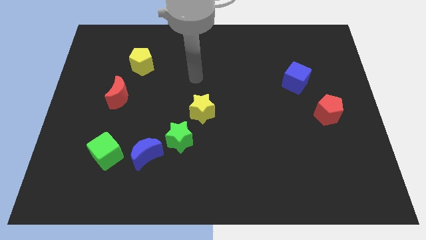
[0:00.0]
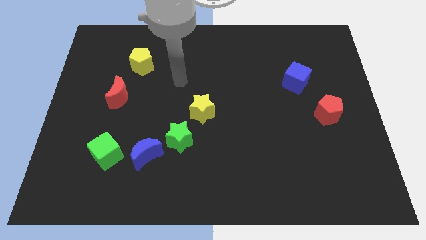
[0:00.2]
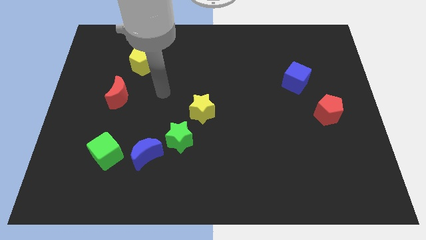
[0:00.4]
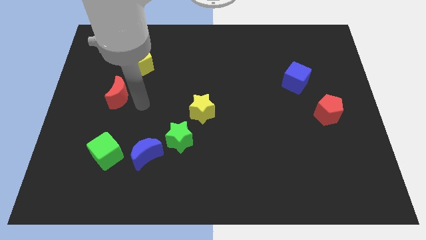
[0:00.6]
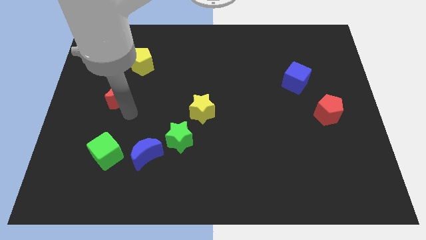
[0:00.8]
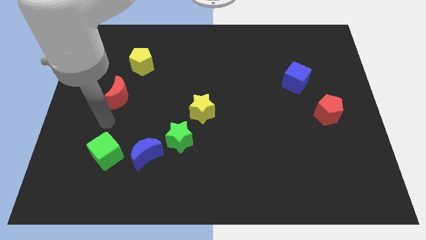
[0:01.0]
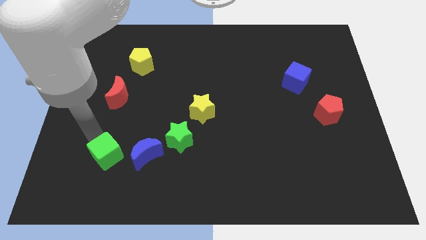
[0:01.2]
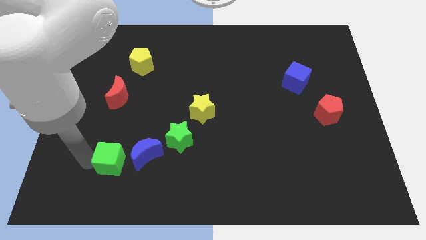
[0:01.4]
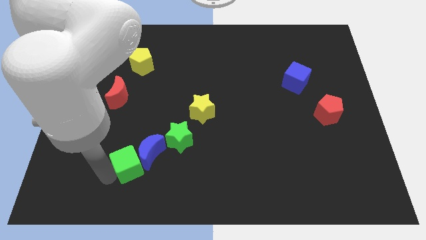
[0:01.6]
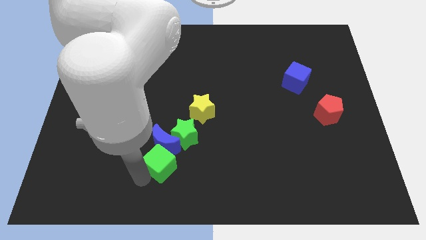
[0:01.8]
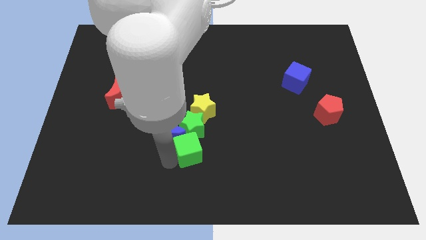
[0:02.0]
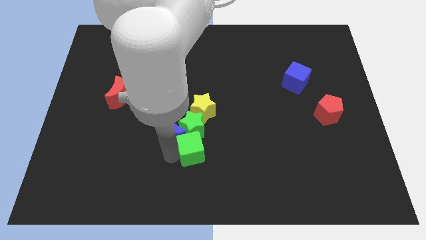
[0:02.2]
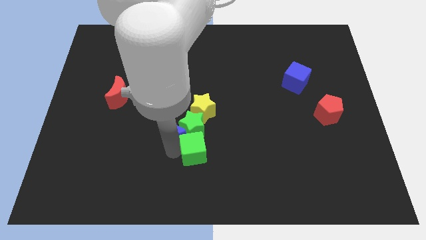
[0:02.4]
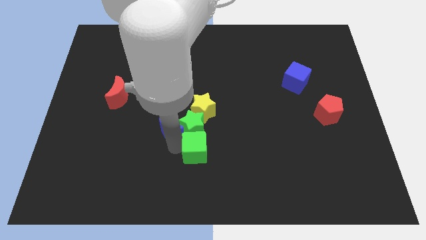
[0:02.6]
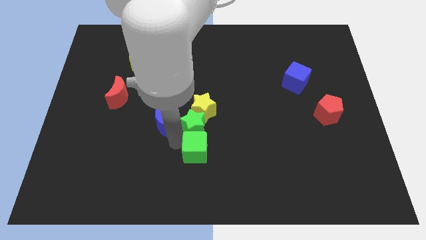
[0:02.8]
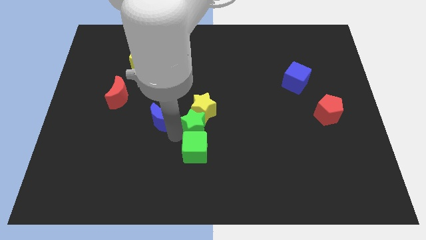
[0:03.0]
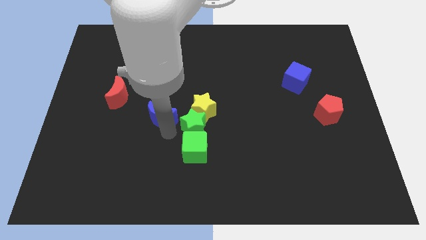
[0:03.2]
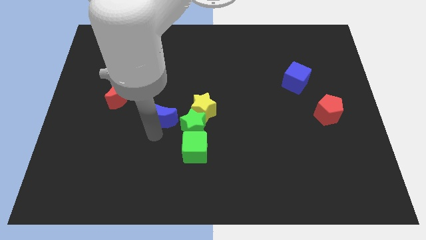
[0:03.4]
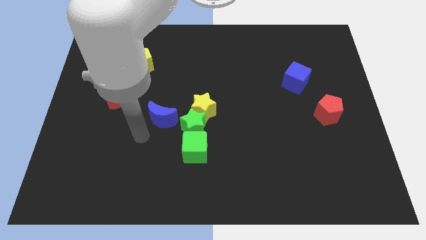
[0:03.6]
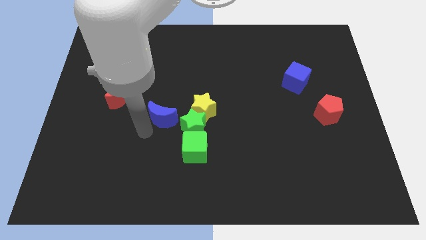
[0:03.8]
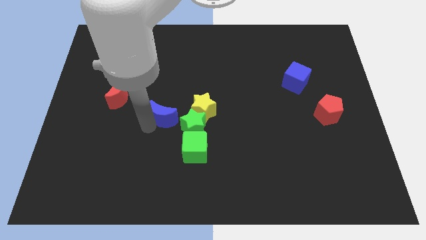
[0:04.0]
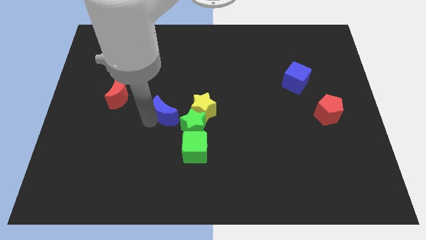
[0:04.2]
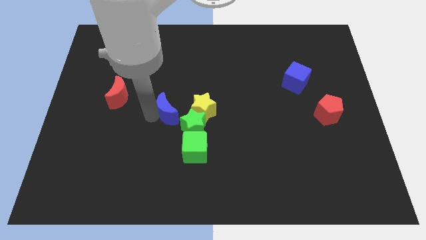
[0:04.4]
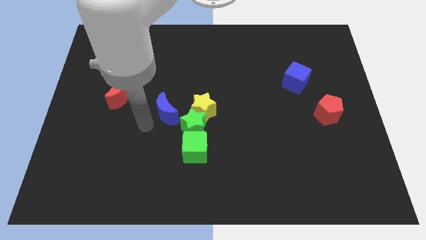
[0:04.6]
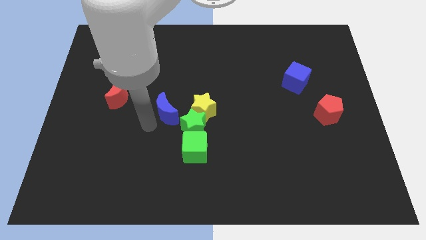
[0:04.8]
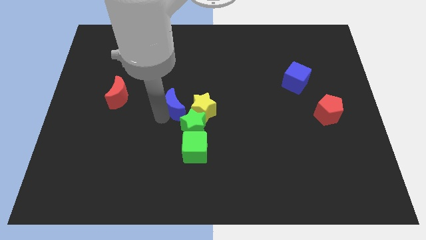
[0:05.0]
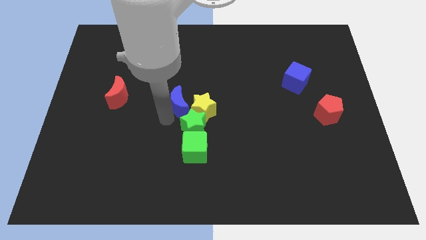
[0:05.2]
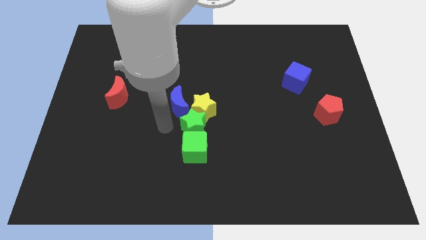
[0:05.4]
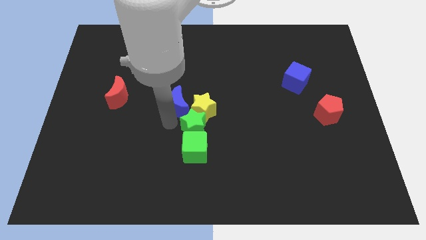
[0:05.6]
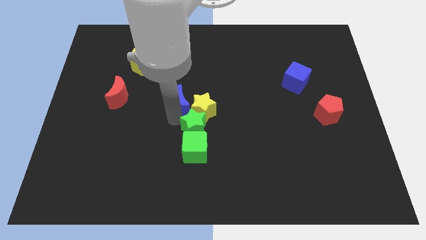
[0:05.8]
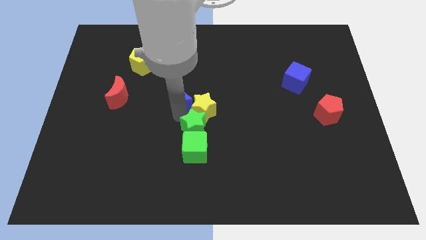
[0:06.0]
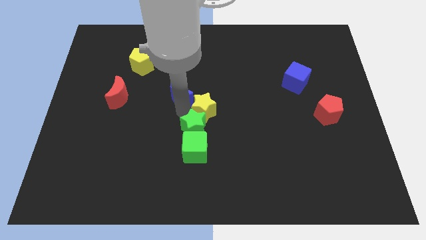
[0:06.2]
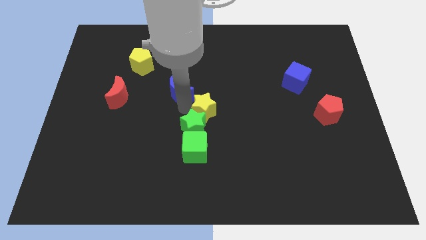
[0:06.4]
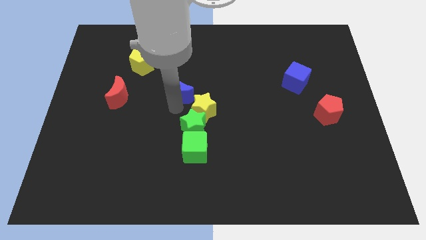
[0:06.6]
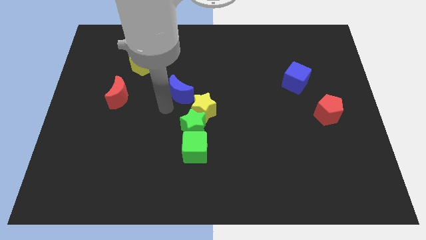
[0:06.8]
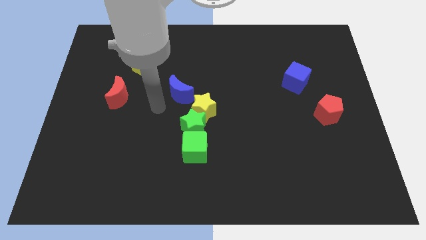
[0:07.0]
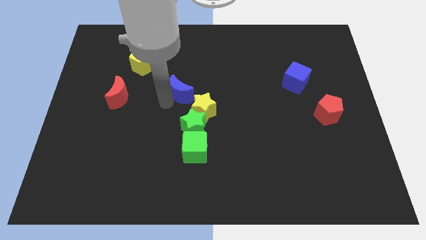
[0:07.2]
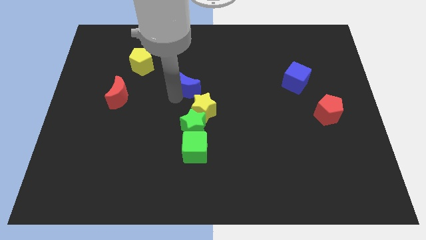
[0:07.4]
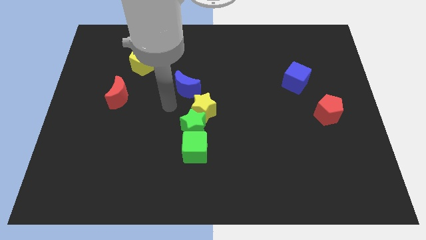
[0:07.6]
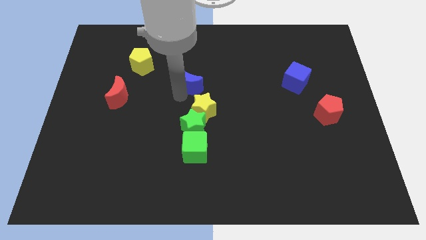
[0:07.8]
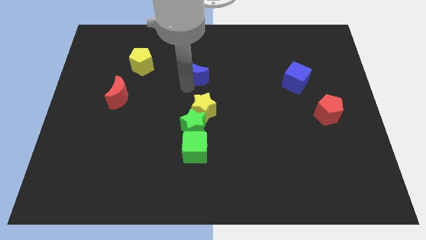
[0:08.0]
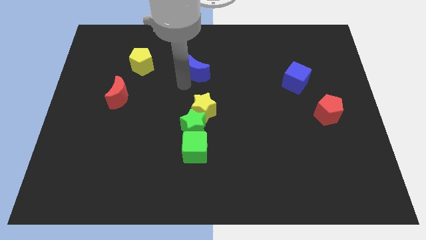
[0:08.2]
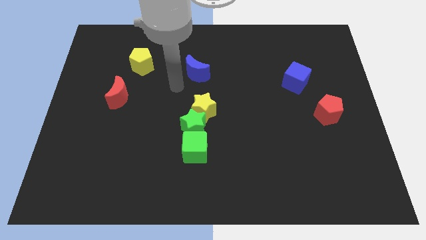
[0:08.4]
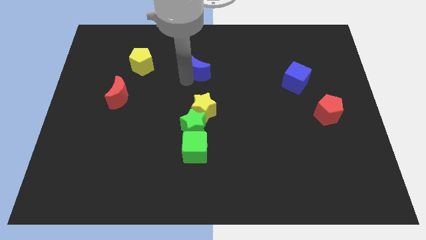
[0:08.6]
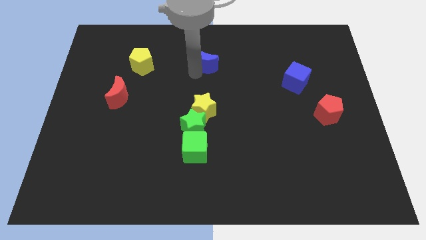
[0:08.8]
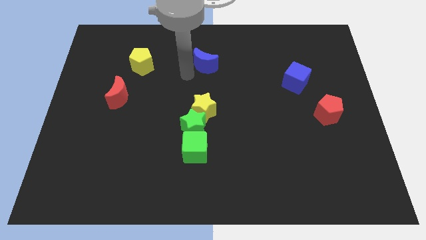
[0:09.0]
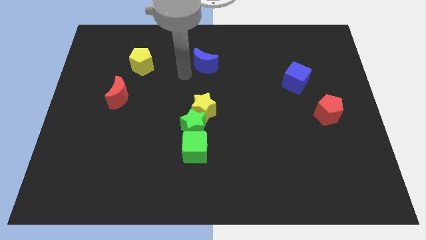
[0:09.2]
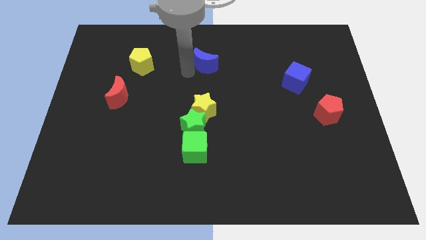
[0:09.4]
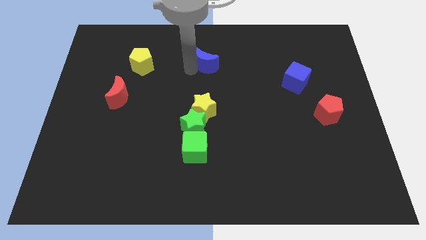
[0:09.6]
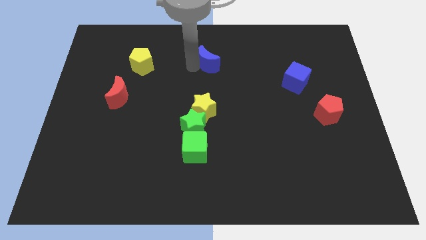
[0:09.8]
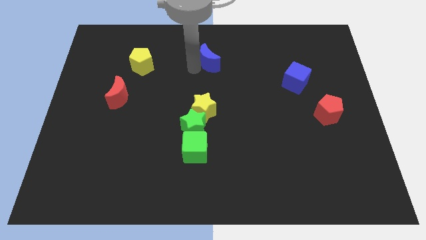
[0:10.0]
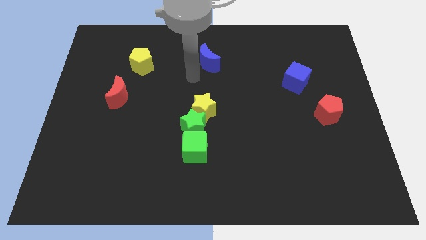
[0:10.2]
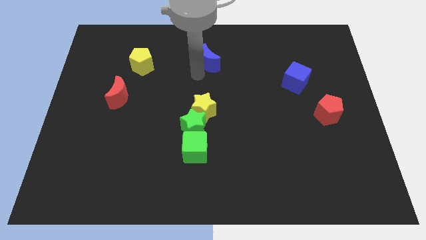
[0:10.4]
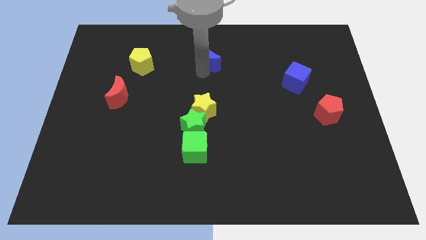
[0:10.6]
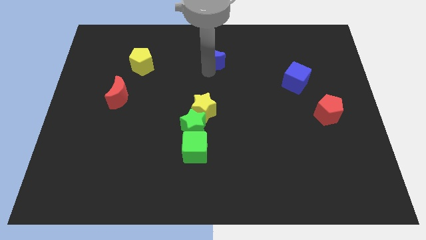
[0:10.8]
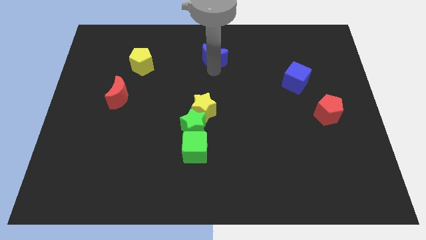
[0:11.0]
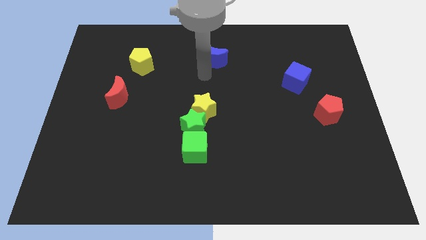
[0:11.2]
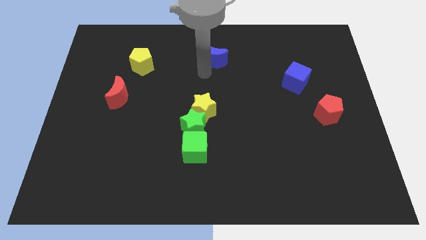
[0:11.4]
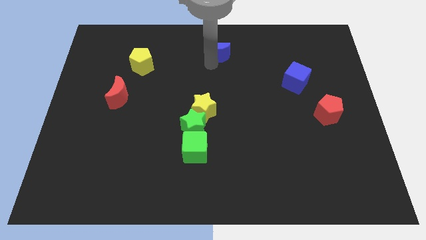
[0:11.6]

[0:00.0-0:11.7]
slide the blue moon to the top side

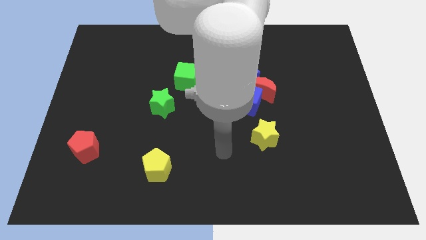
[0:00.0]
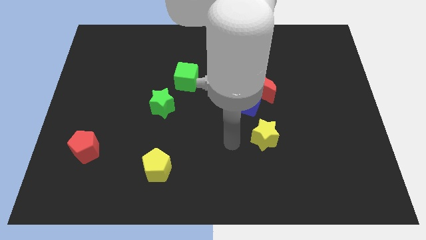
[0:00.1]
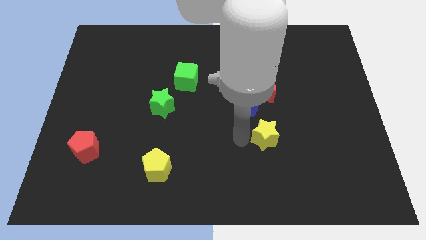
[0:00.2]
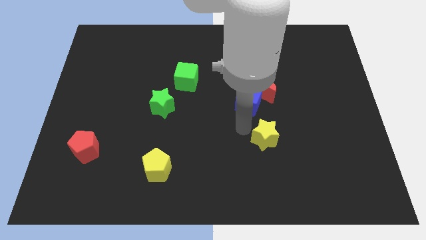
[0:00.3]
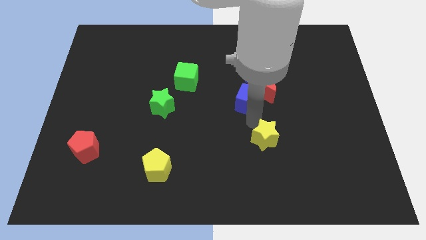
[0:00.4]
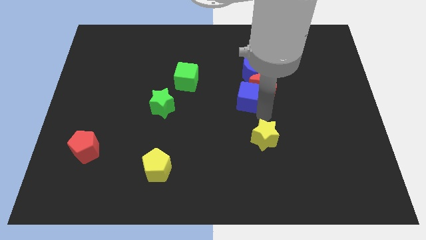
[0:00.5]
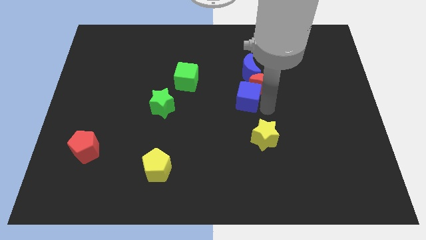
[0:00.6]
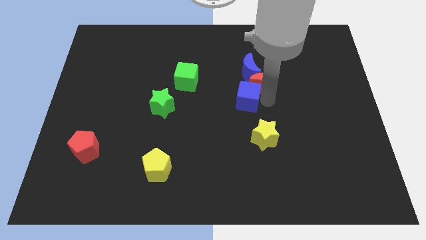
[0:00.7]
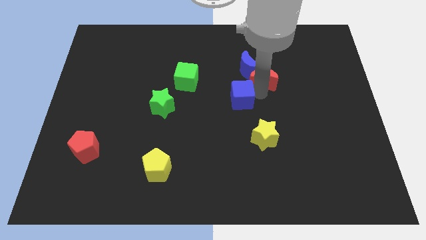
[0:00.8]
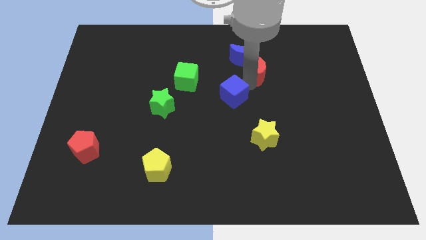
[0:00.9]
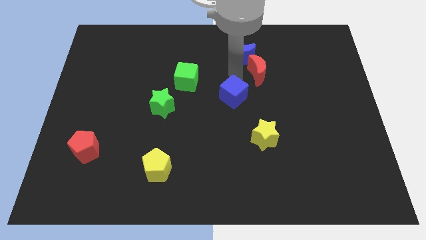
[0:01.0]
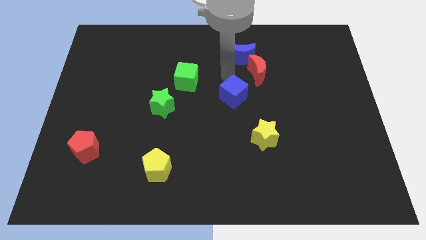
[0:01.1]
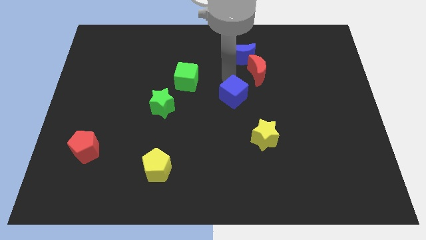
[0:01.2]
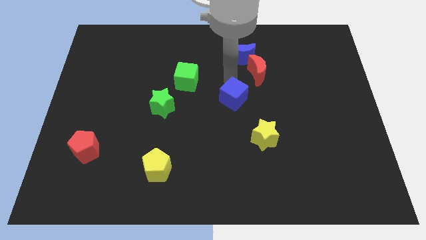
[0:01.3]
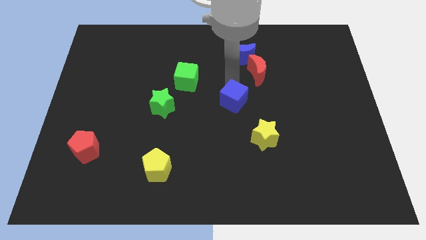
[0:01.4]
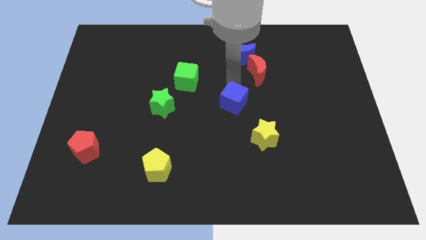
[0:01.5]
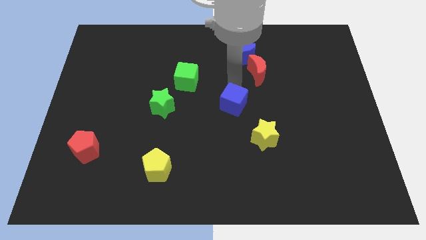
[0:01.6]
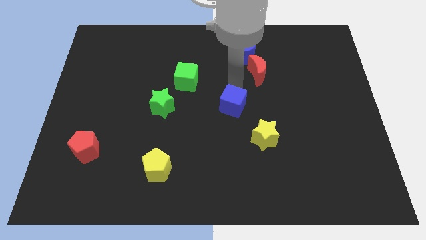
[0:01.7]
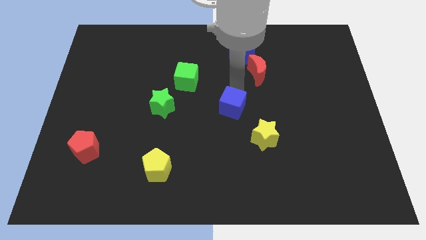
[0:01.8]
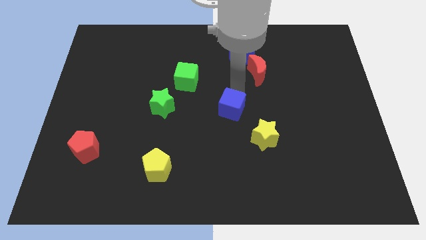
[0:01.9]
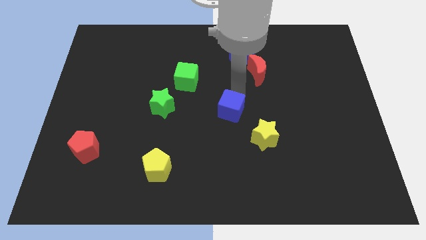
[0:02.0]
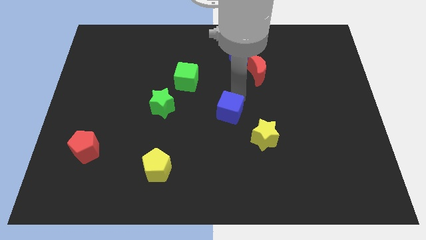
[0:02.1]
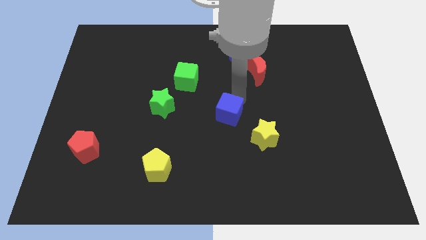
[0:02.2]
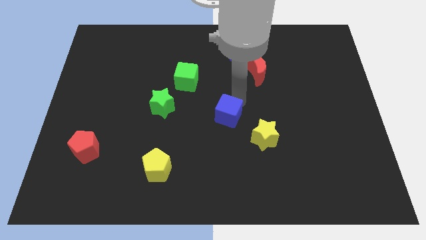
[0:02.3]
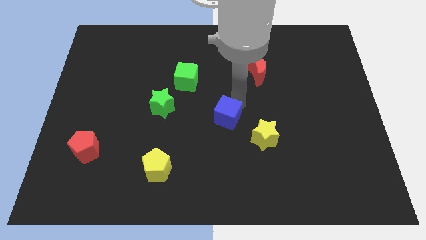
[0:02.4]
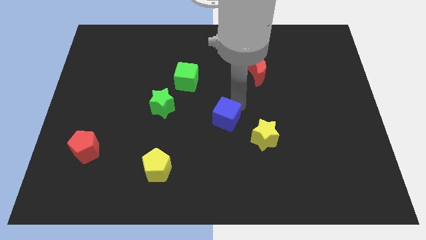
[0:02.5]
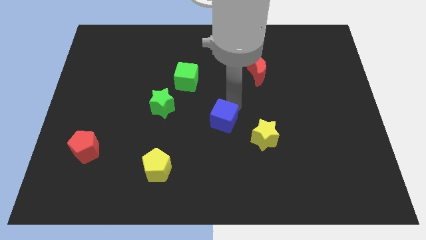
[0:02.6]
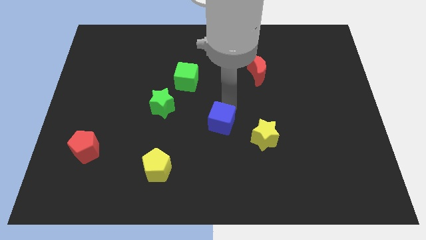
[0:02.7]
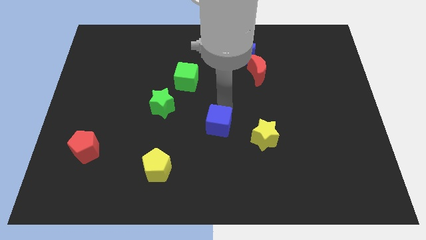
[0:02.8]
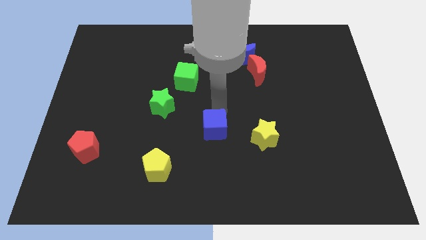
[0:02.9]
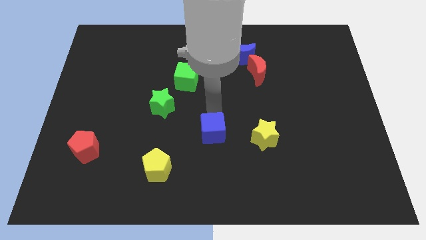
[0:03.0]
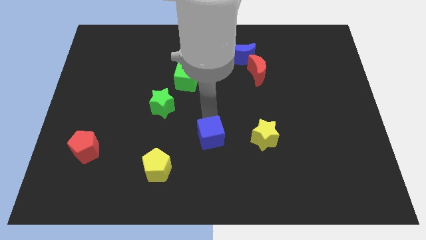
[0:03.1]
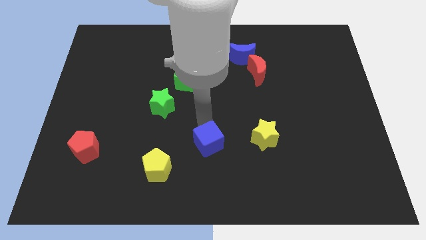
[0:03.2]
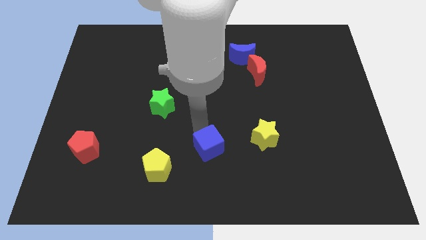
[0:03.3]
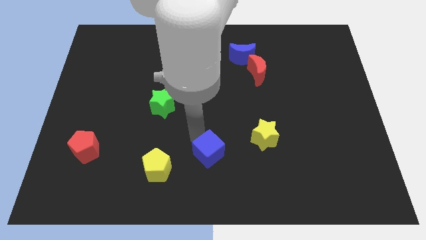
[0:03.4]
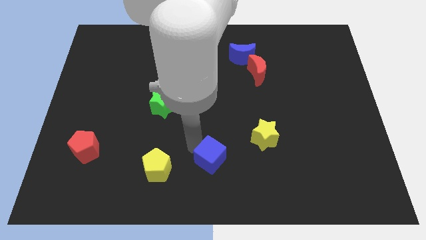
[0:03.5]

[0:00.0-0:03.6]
move the blue cube to the bottom side
